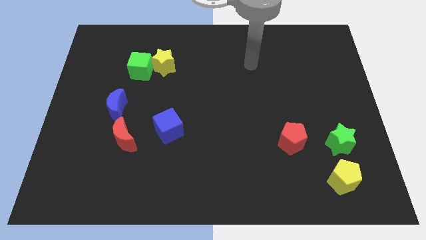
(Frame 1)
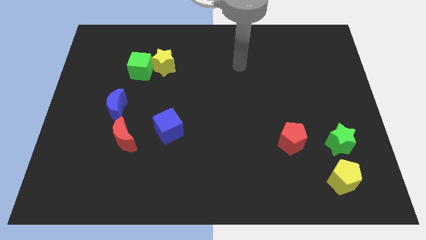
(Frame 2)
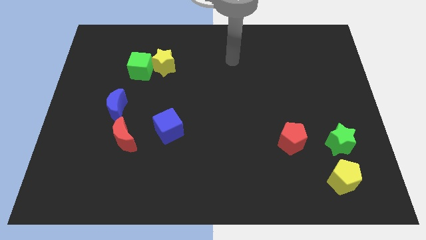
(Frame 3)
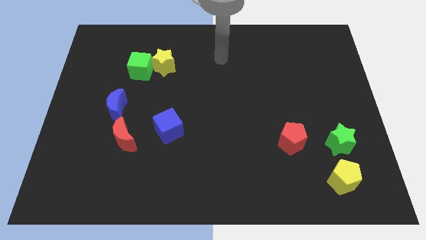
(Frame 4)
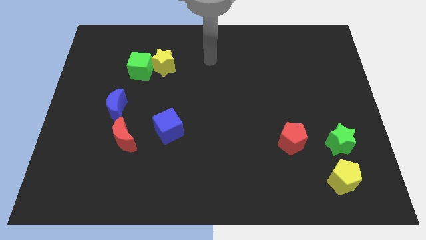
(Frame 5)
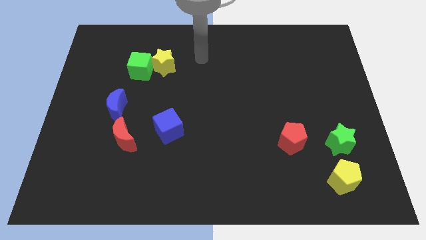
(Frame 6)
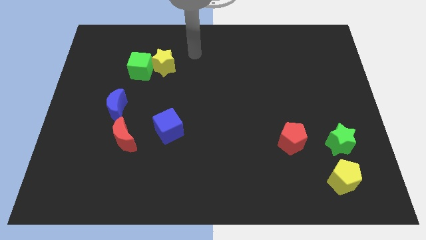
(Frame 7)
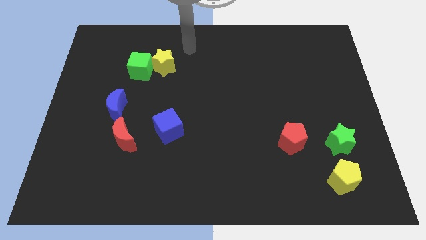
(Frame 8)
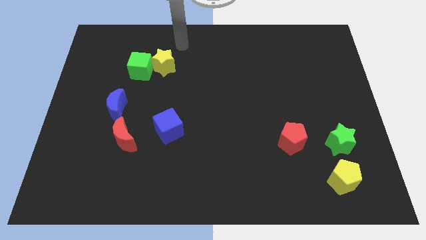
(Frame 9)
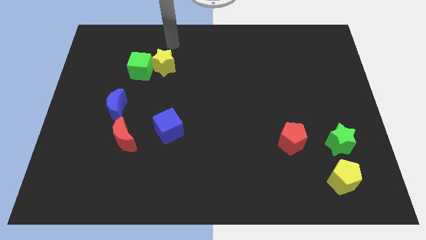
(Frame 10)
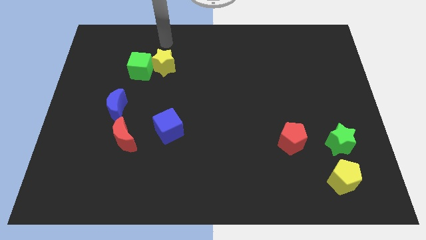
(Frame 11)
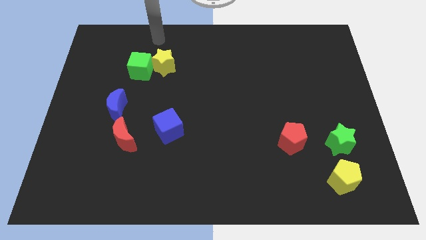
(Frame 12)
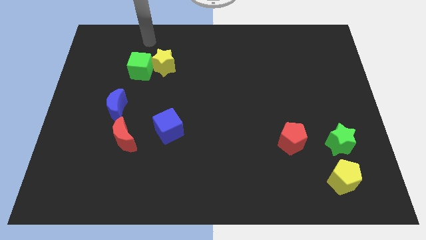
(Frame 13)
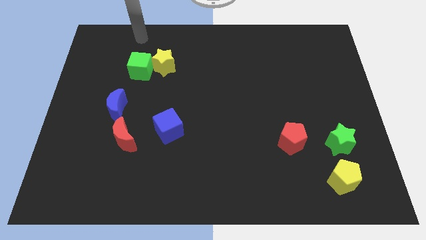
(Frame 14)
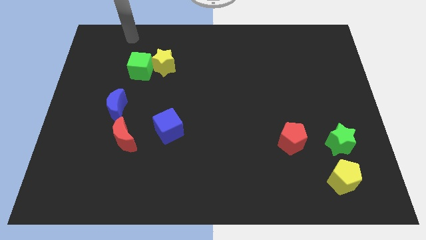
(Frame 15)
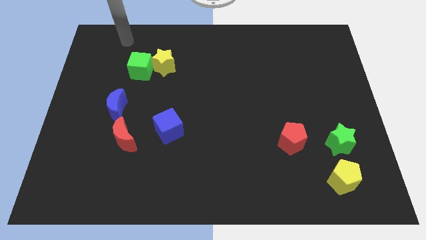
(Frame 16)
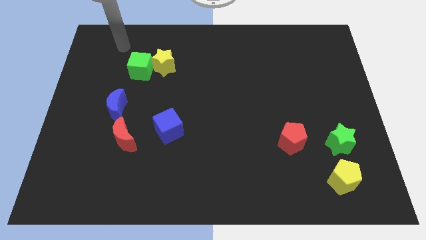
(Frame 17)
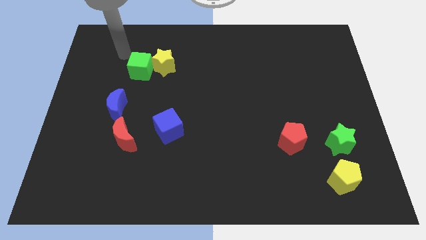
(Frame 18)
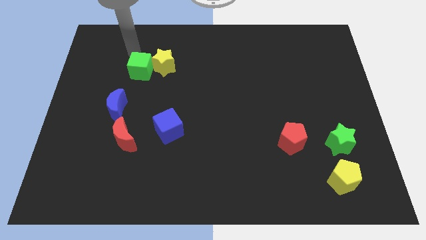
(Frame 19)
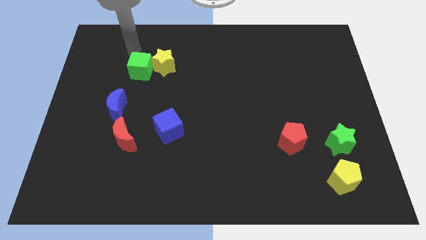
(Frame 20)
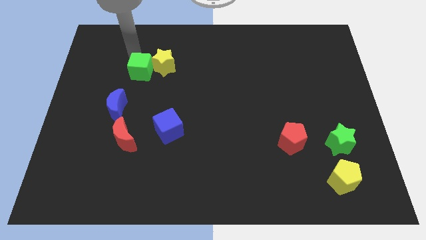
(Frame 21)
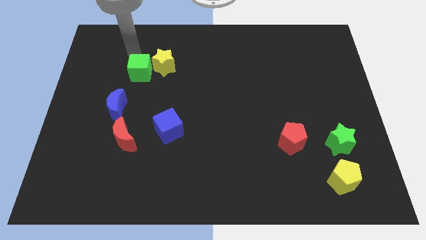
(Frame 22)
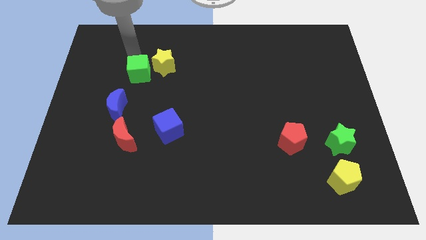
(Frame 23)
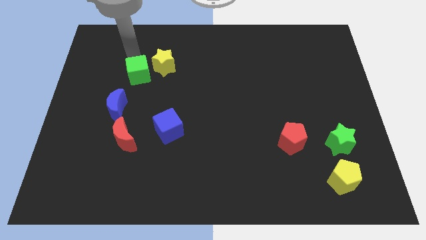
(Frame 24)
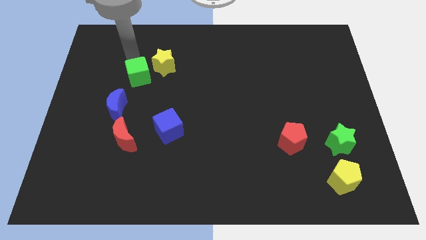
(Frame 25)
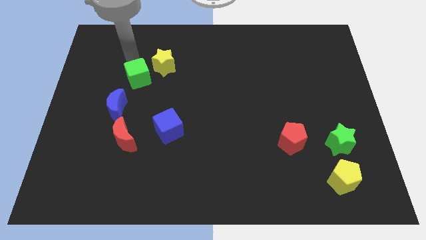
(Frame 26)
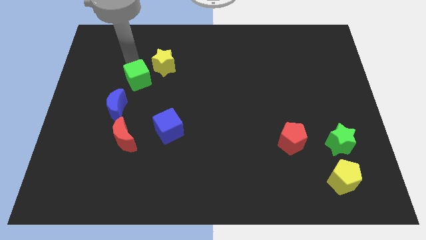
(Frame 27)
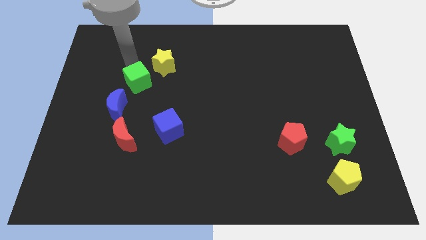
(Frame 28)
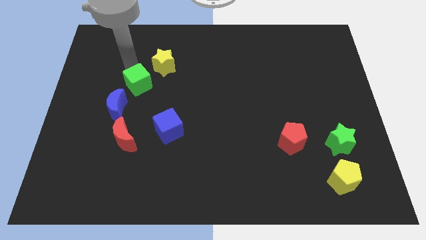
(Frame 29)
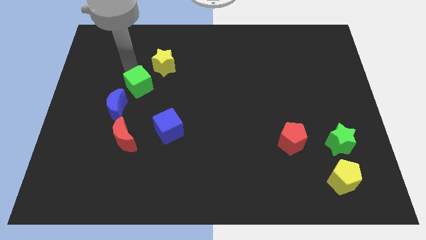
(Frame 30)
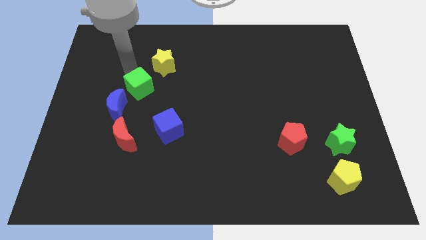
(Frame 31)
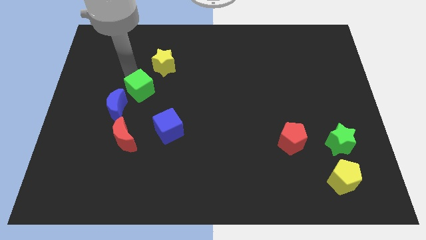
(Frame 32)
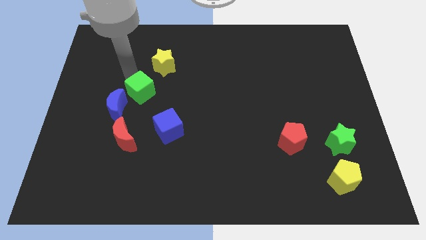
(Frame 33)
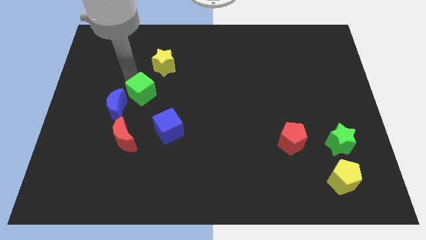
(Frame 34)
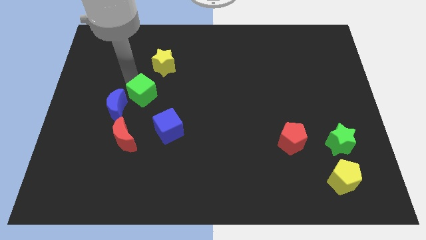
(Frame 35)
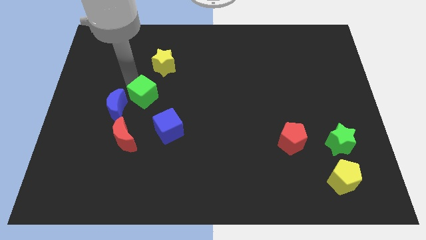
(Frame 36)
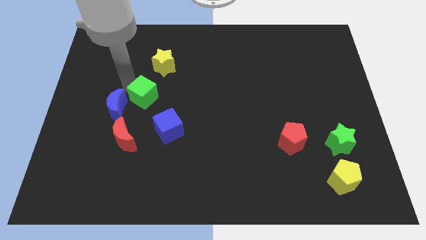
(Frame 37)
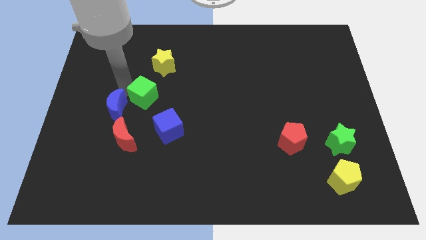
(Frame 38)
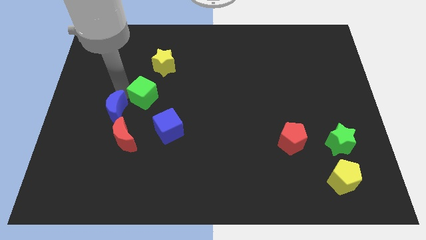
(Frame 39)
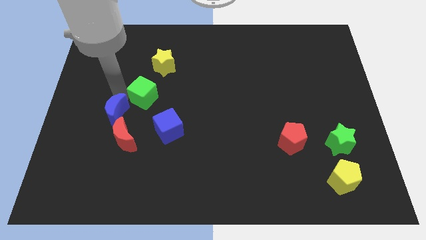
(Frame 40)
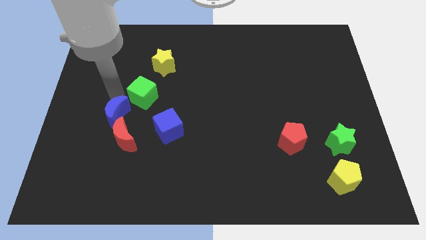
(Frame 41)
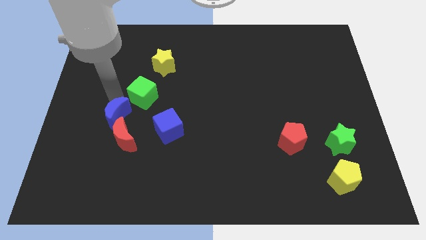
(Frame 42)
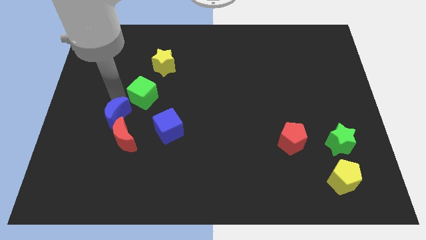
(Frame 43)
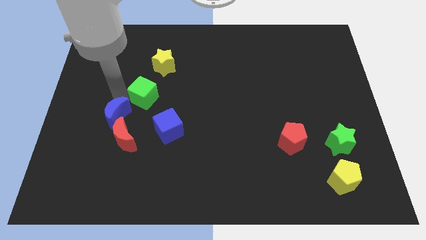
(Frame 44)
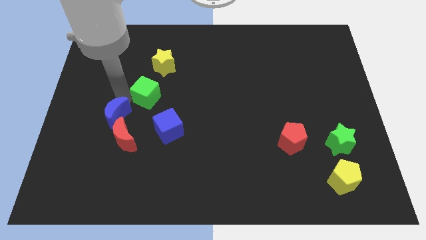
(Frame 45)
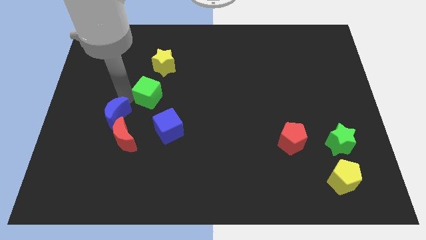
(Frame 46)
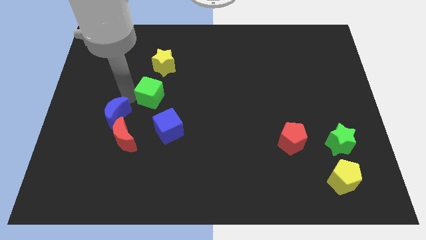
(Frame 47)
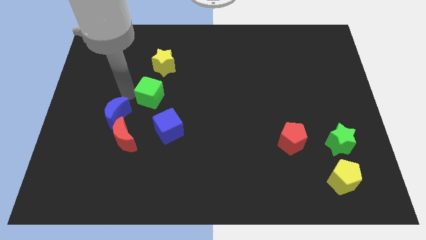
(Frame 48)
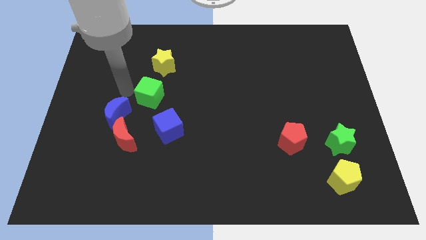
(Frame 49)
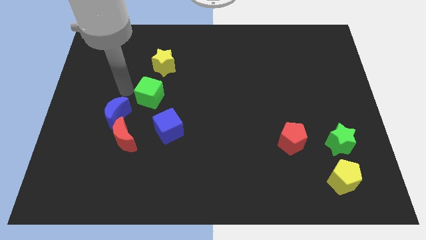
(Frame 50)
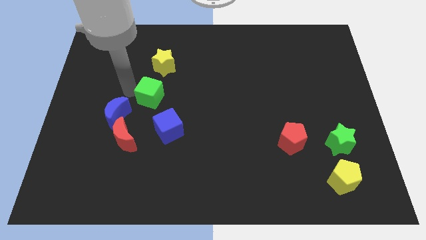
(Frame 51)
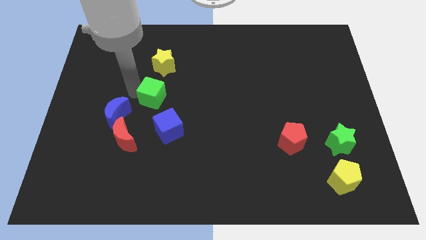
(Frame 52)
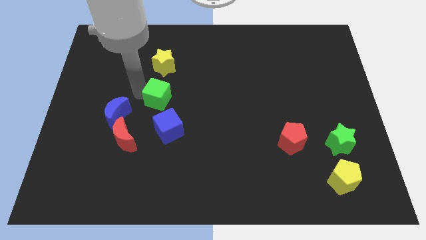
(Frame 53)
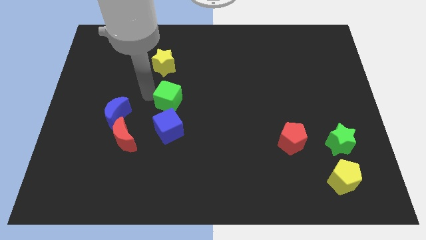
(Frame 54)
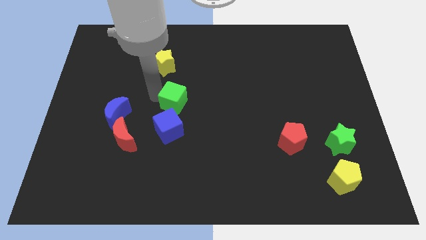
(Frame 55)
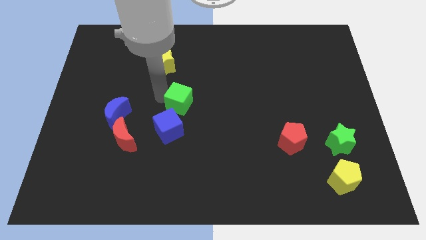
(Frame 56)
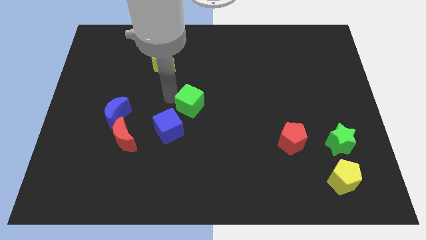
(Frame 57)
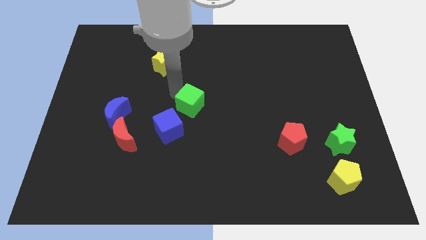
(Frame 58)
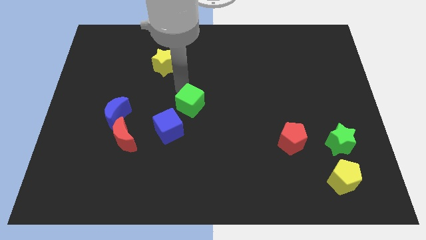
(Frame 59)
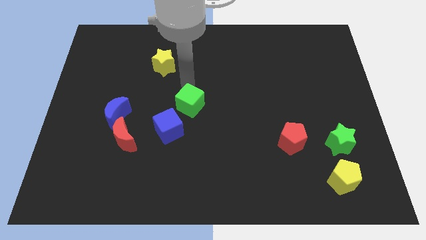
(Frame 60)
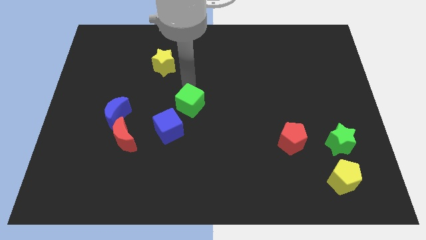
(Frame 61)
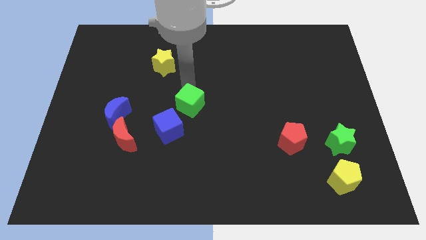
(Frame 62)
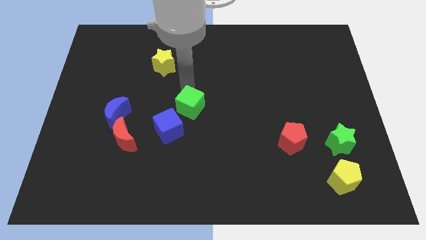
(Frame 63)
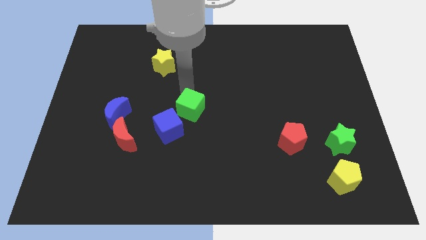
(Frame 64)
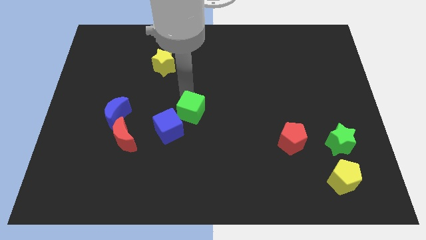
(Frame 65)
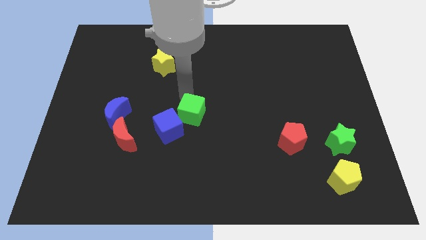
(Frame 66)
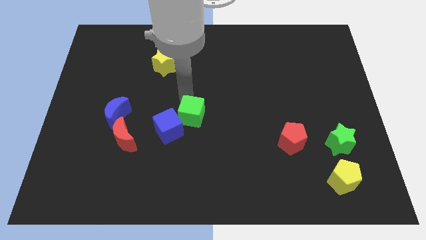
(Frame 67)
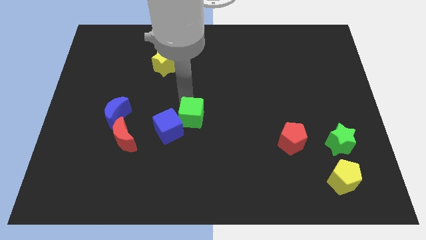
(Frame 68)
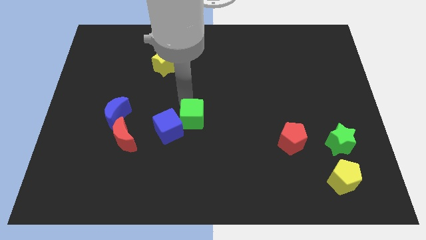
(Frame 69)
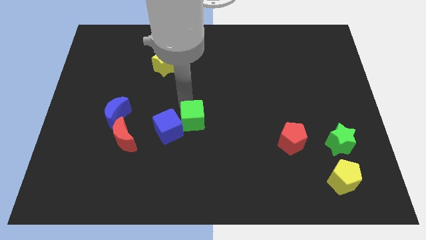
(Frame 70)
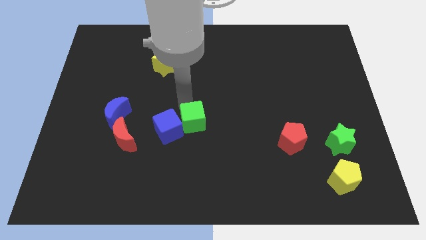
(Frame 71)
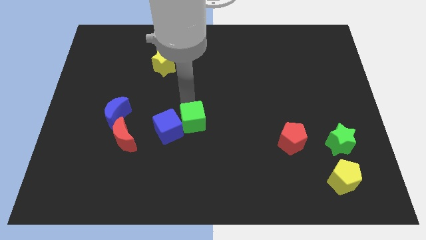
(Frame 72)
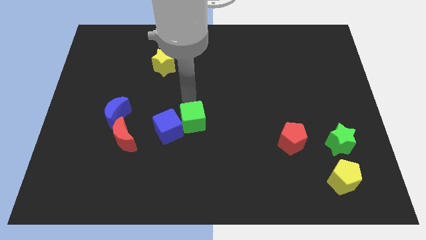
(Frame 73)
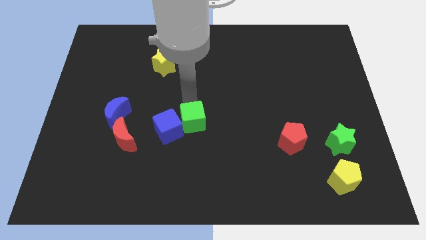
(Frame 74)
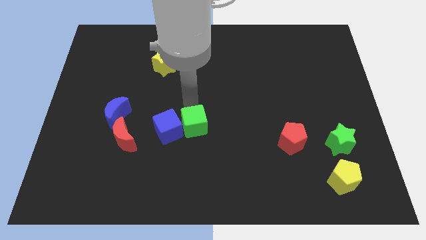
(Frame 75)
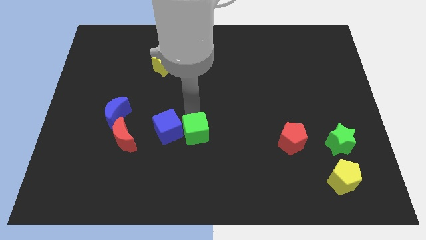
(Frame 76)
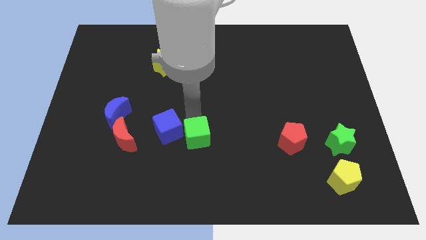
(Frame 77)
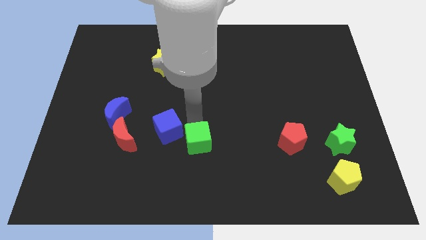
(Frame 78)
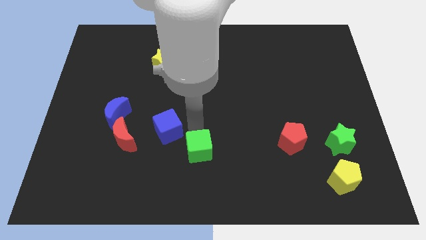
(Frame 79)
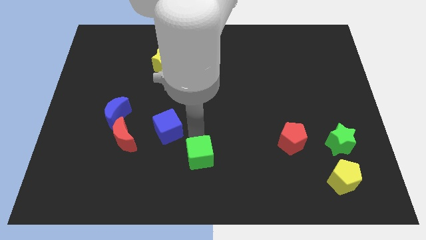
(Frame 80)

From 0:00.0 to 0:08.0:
put the green cube to the bottom side
